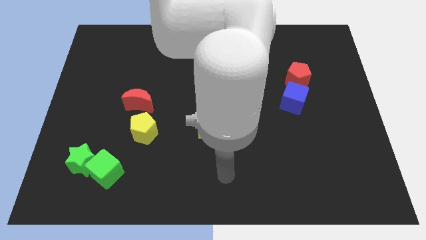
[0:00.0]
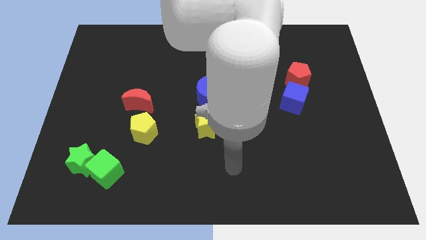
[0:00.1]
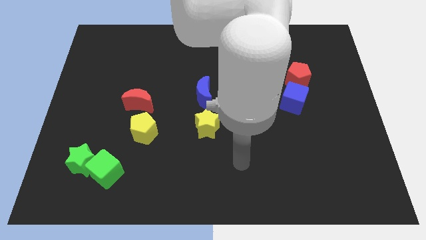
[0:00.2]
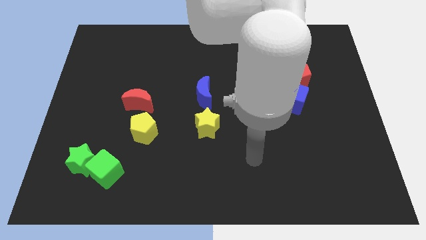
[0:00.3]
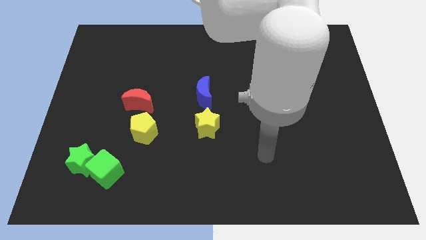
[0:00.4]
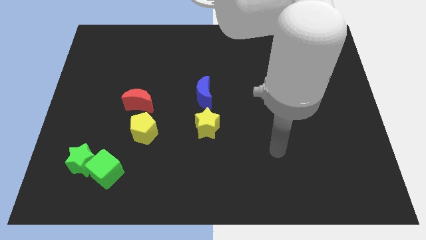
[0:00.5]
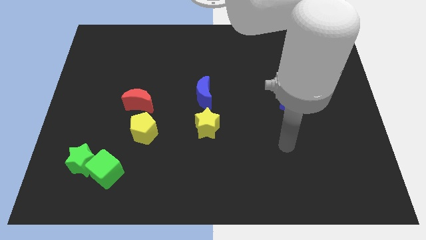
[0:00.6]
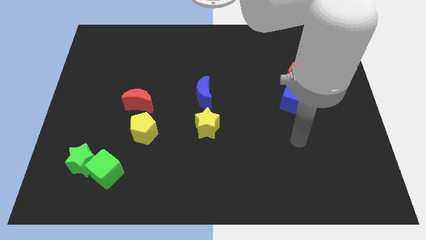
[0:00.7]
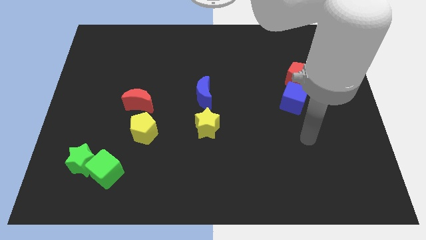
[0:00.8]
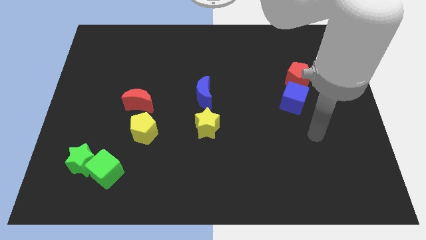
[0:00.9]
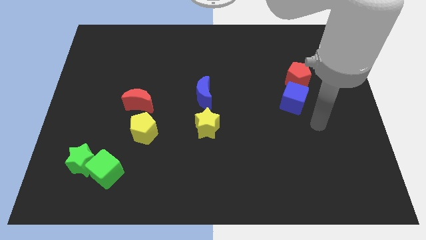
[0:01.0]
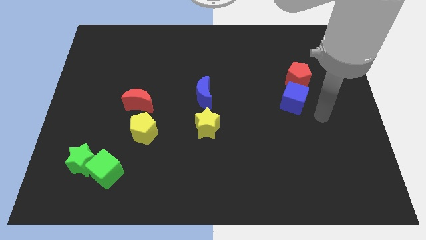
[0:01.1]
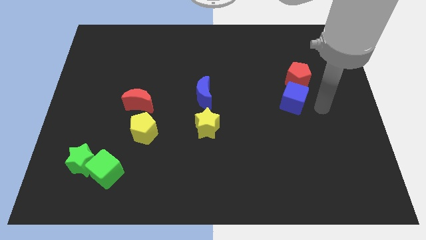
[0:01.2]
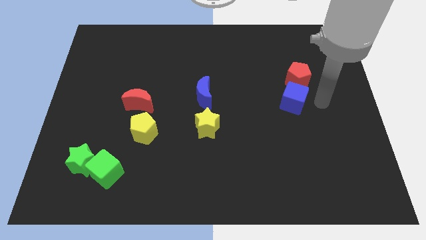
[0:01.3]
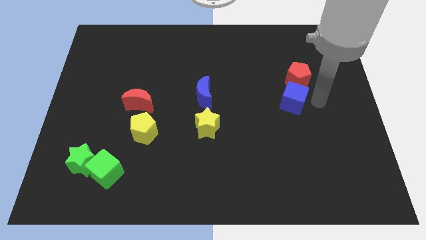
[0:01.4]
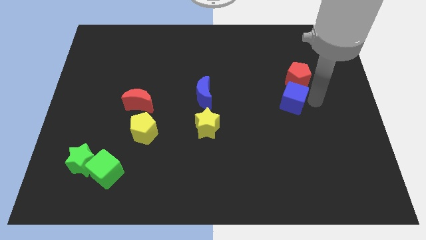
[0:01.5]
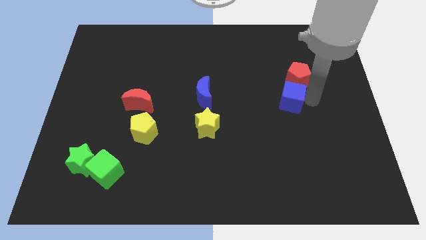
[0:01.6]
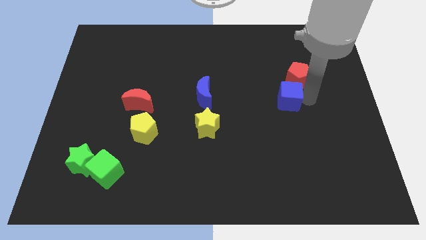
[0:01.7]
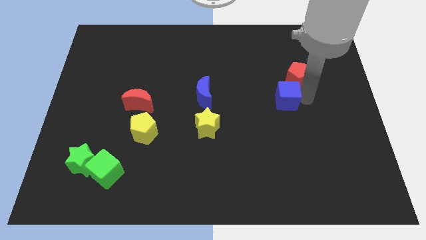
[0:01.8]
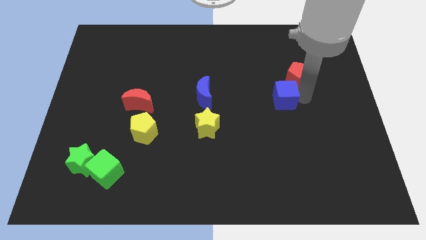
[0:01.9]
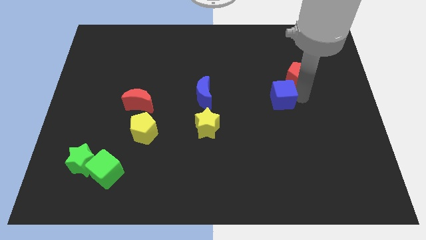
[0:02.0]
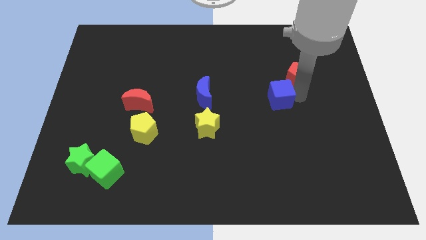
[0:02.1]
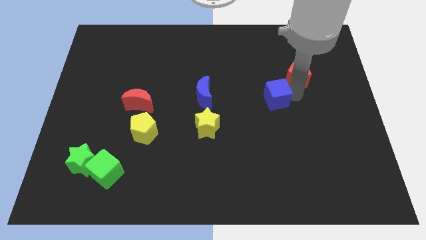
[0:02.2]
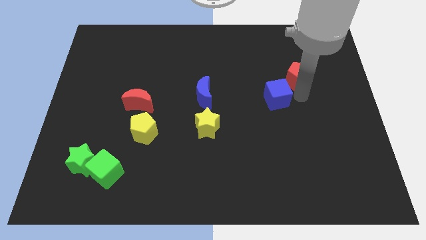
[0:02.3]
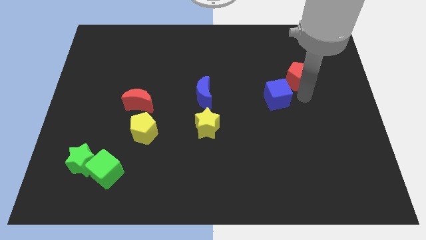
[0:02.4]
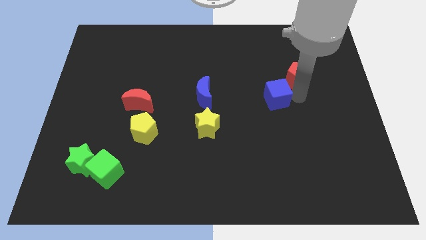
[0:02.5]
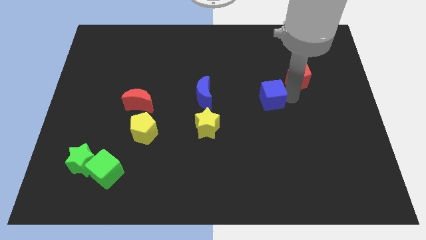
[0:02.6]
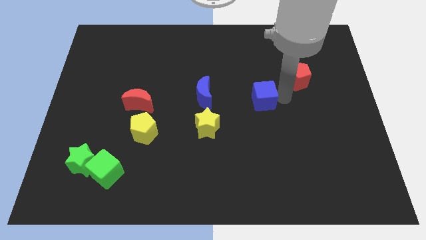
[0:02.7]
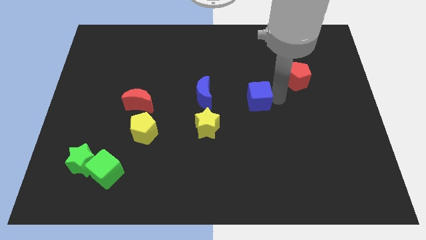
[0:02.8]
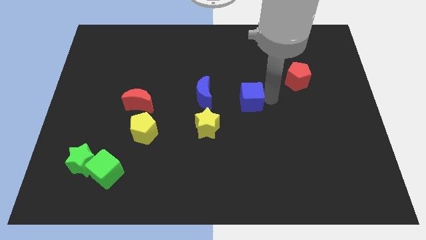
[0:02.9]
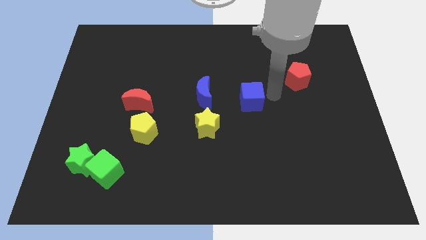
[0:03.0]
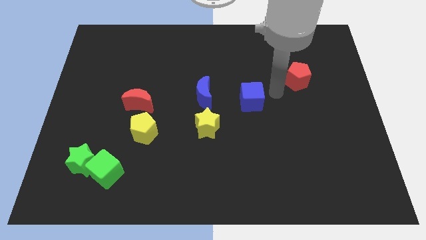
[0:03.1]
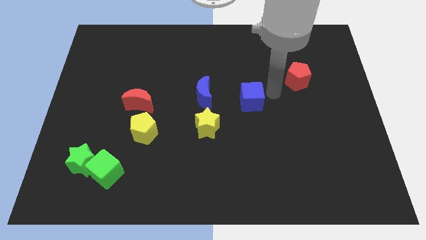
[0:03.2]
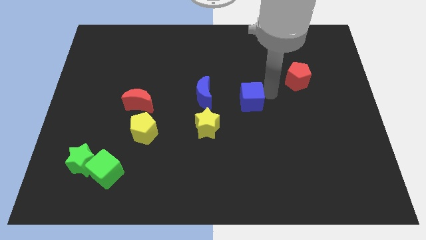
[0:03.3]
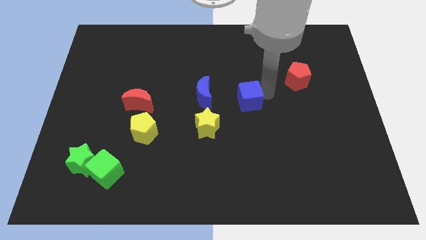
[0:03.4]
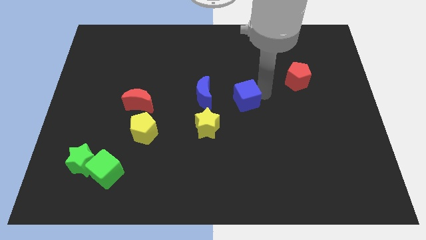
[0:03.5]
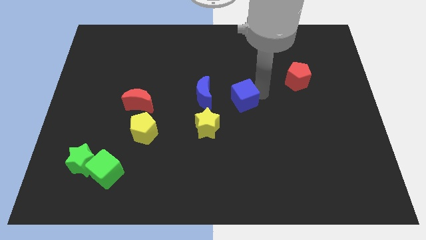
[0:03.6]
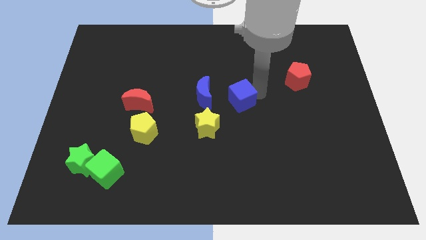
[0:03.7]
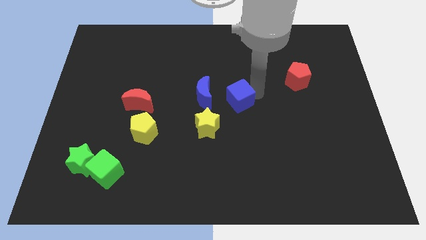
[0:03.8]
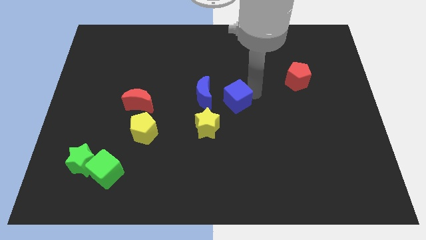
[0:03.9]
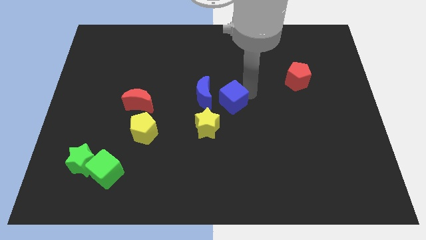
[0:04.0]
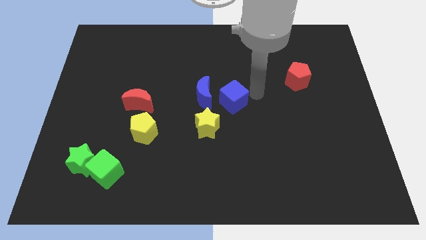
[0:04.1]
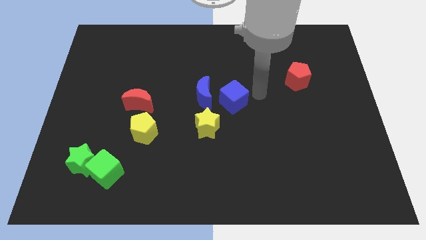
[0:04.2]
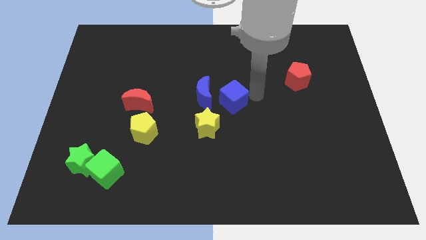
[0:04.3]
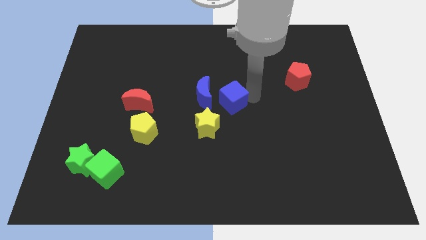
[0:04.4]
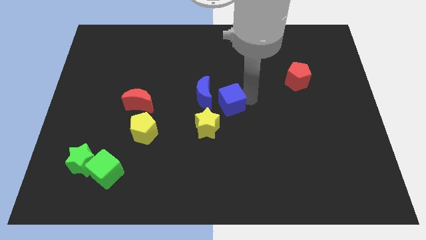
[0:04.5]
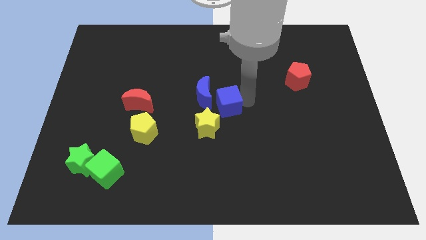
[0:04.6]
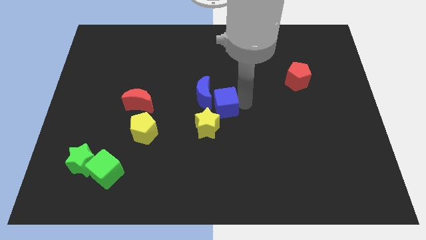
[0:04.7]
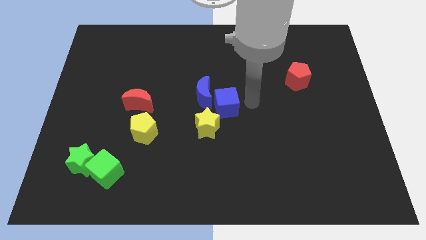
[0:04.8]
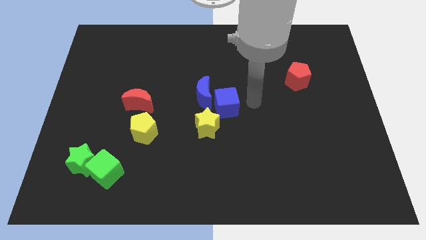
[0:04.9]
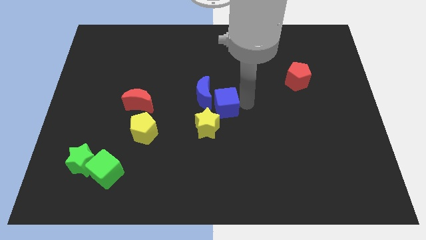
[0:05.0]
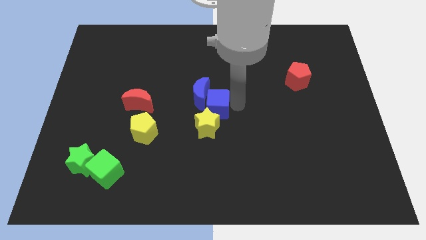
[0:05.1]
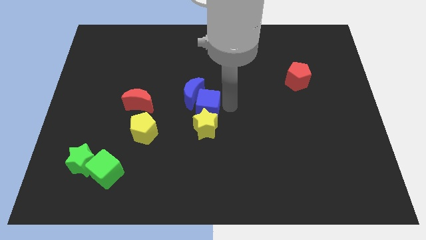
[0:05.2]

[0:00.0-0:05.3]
move the blue cube left

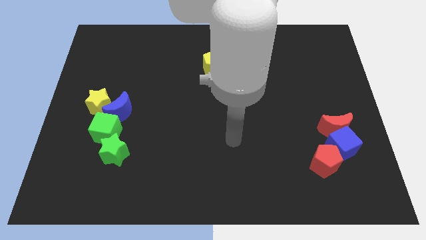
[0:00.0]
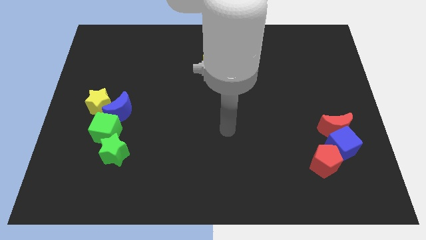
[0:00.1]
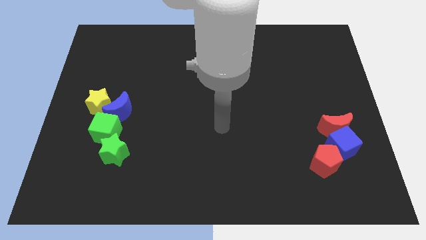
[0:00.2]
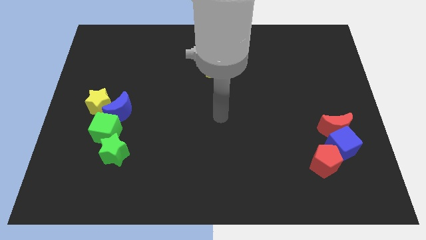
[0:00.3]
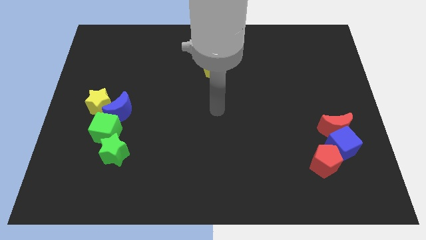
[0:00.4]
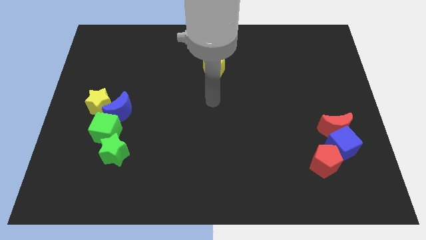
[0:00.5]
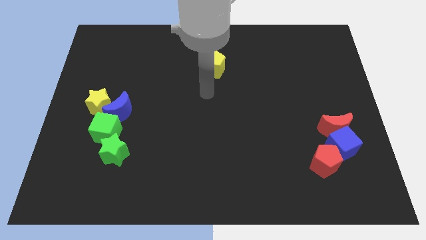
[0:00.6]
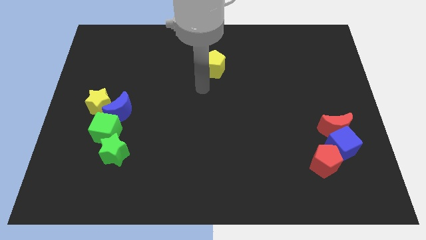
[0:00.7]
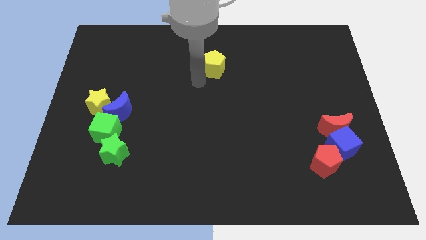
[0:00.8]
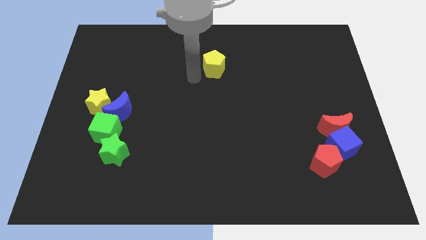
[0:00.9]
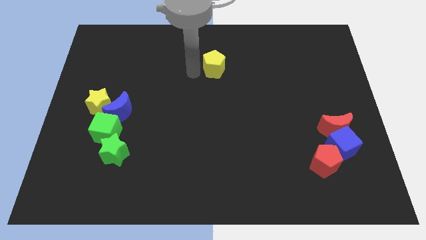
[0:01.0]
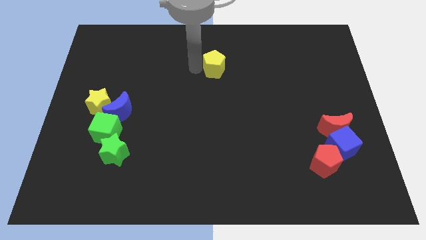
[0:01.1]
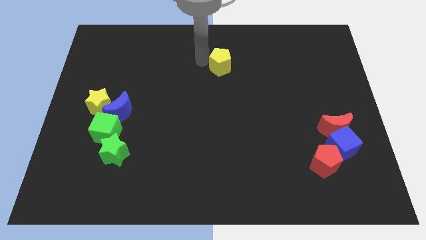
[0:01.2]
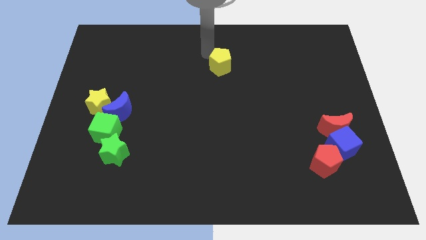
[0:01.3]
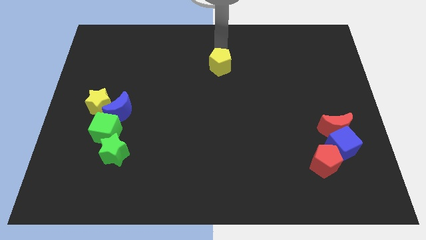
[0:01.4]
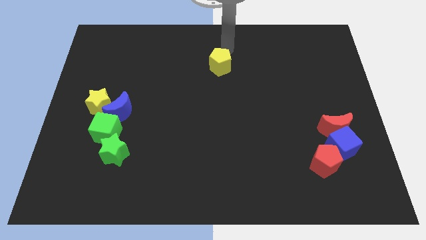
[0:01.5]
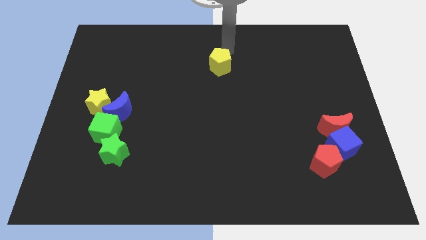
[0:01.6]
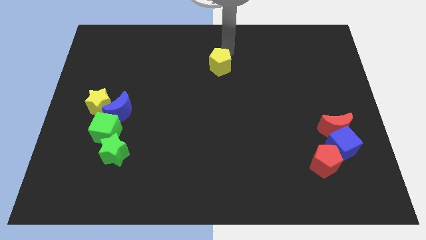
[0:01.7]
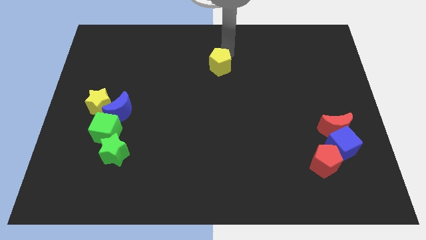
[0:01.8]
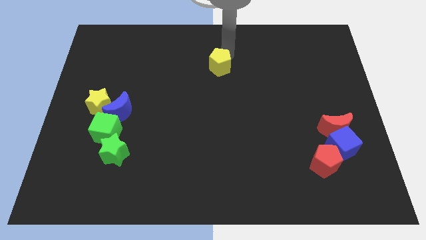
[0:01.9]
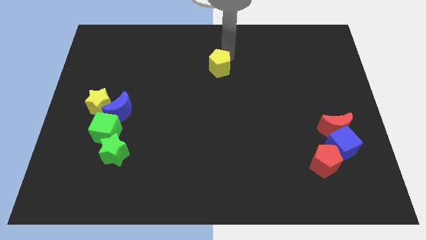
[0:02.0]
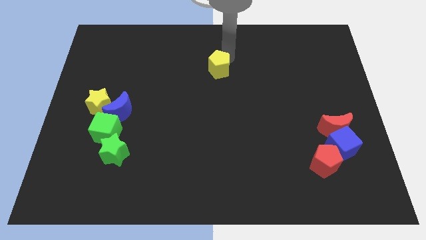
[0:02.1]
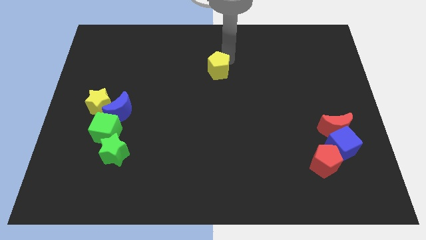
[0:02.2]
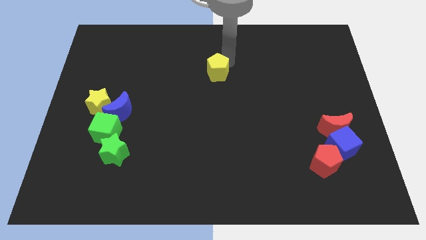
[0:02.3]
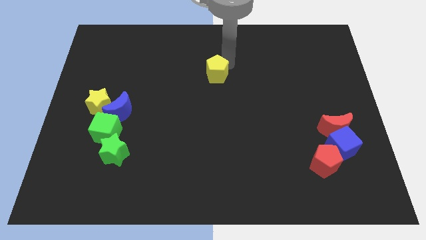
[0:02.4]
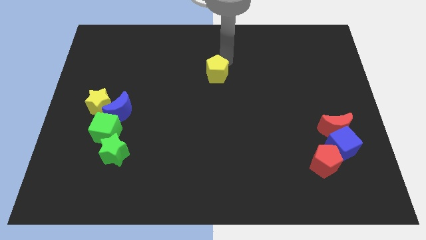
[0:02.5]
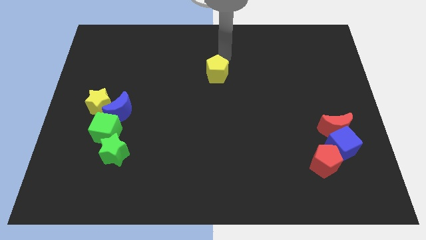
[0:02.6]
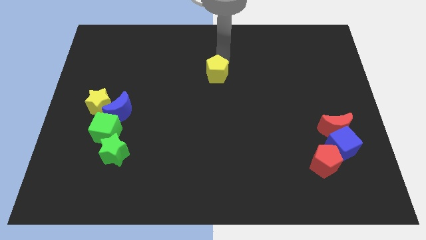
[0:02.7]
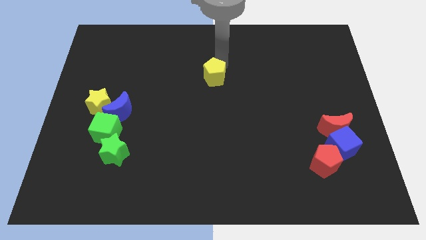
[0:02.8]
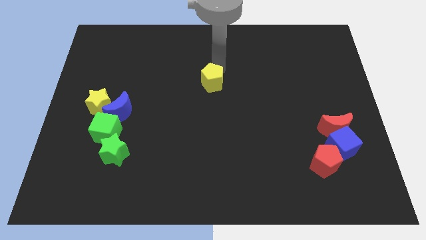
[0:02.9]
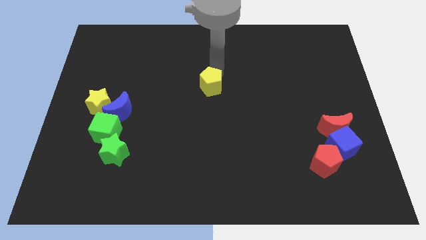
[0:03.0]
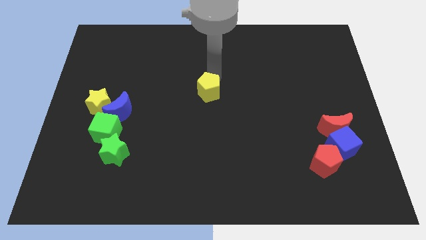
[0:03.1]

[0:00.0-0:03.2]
slightly push the yellow pentagon downwards
